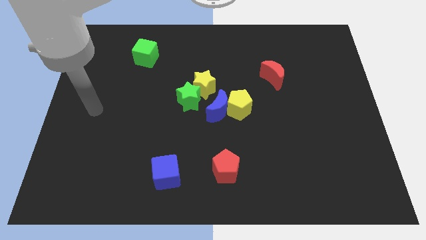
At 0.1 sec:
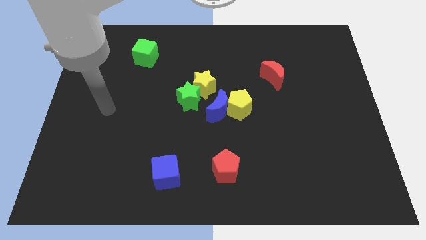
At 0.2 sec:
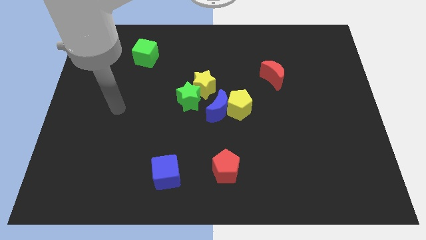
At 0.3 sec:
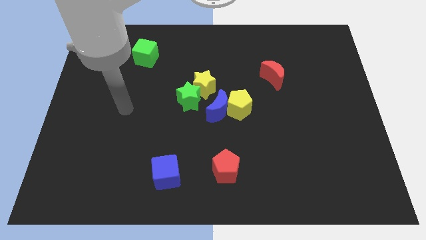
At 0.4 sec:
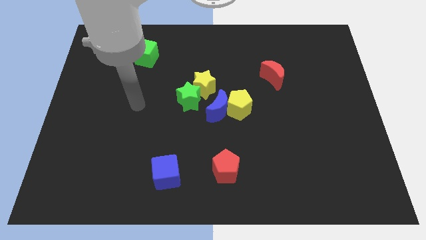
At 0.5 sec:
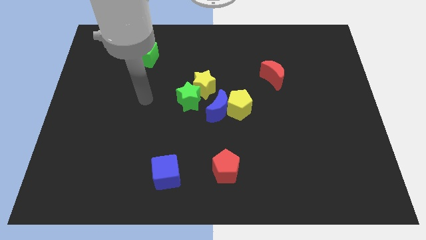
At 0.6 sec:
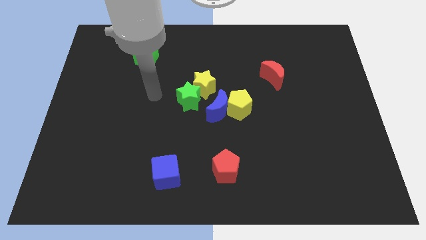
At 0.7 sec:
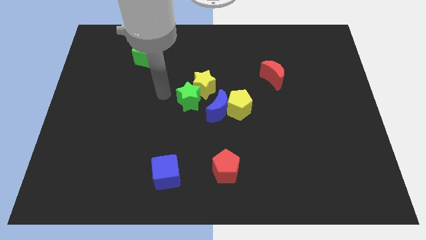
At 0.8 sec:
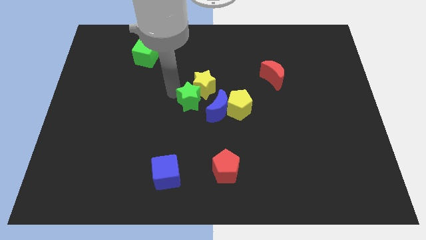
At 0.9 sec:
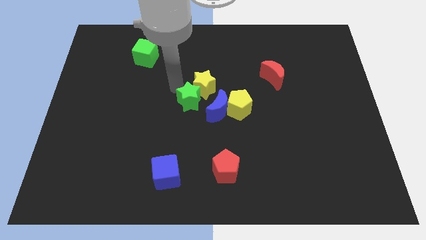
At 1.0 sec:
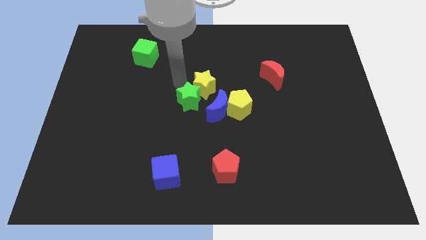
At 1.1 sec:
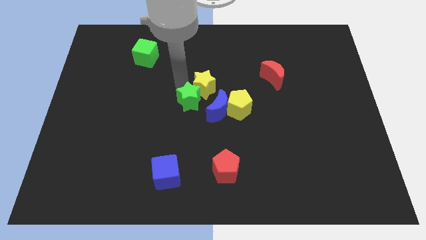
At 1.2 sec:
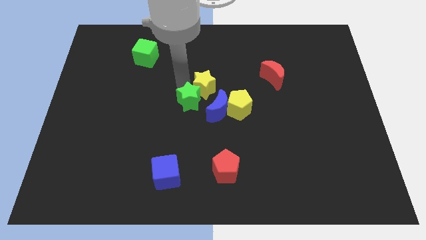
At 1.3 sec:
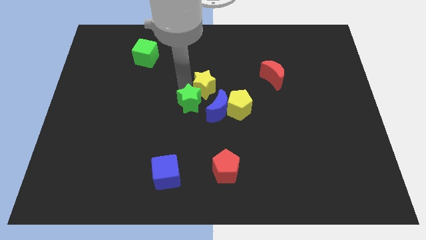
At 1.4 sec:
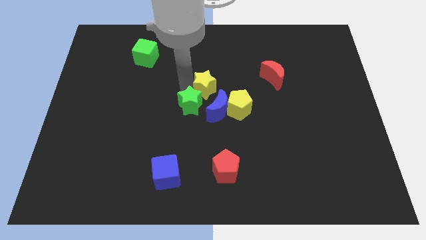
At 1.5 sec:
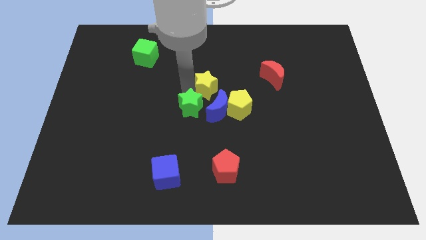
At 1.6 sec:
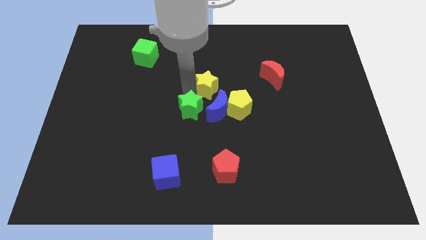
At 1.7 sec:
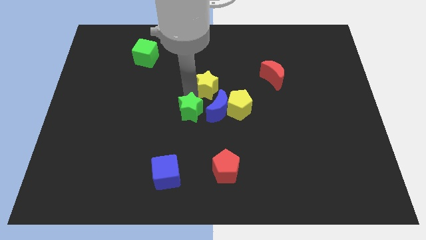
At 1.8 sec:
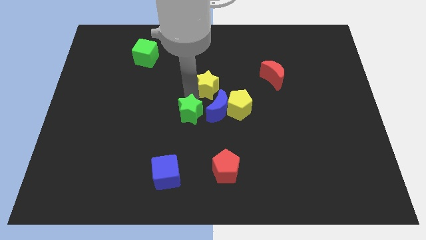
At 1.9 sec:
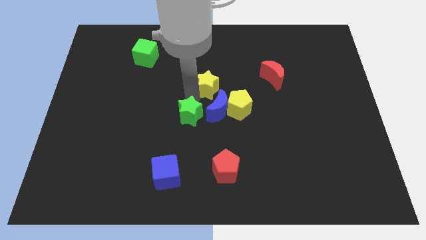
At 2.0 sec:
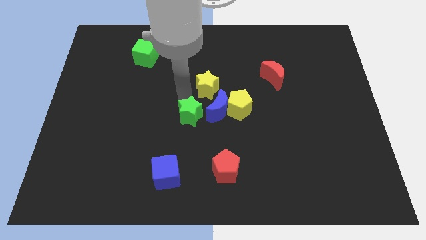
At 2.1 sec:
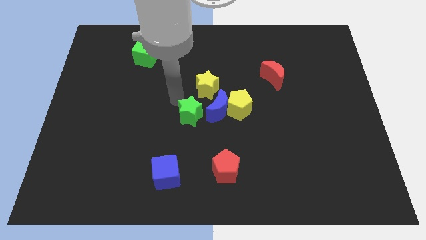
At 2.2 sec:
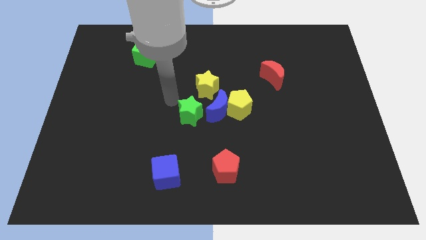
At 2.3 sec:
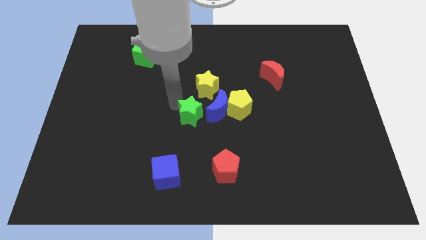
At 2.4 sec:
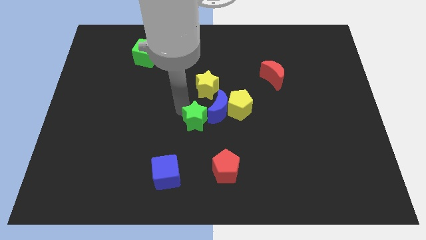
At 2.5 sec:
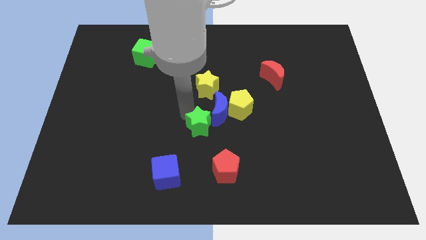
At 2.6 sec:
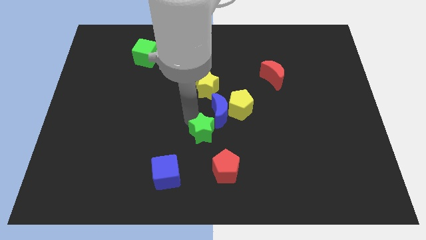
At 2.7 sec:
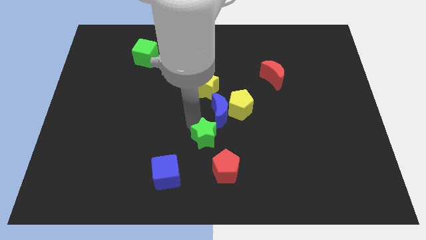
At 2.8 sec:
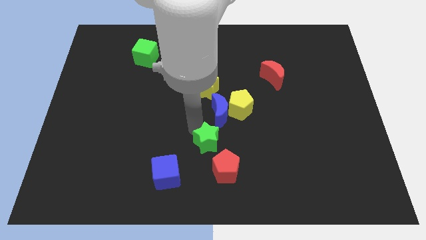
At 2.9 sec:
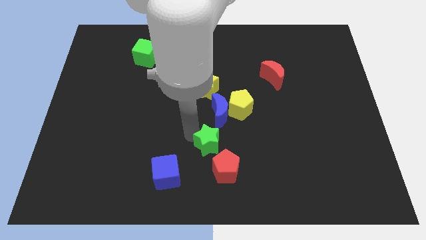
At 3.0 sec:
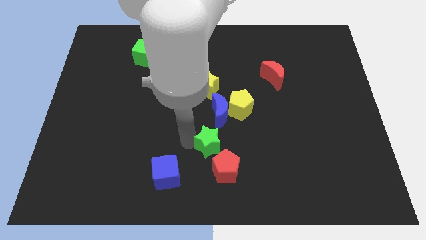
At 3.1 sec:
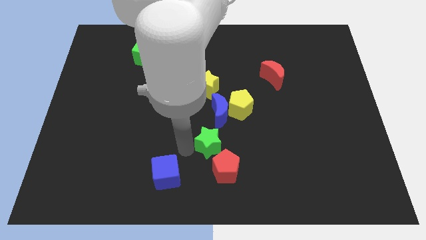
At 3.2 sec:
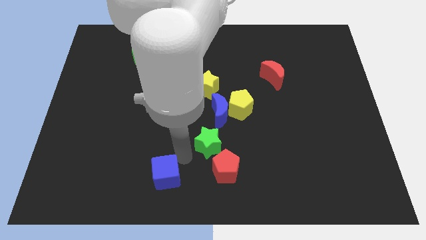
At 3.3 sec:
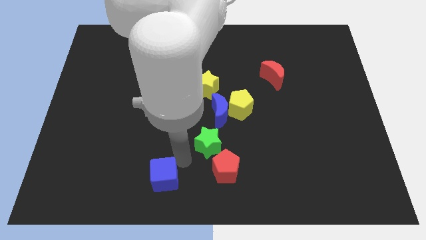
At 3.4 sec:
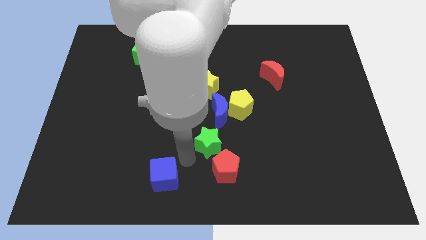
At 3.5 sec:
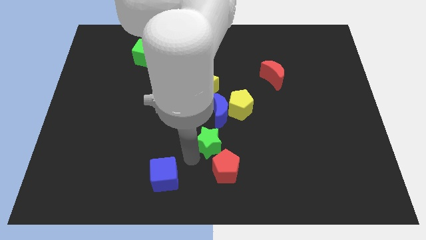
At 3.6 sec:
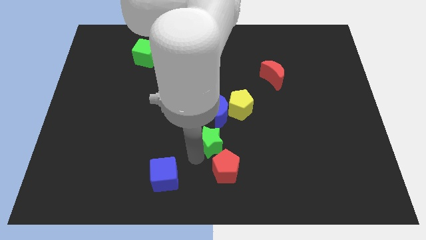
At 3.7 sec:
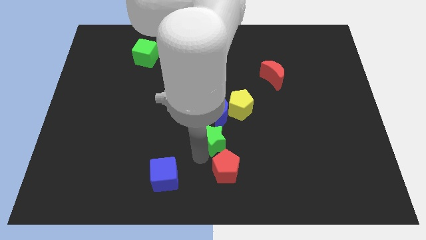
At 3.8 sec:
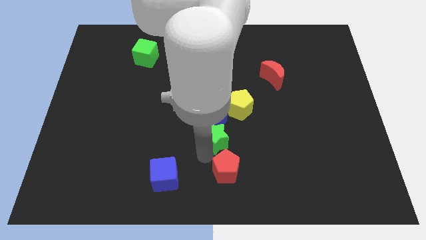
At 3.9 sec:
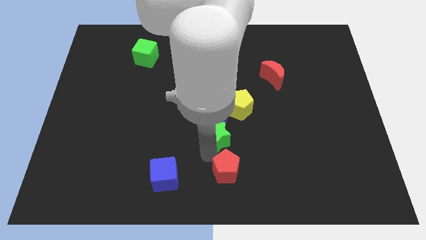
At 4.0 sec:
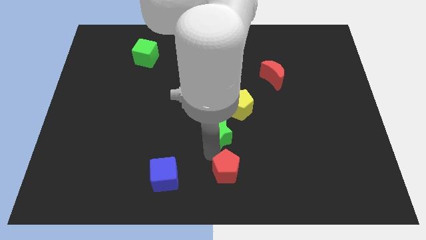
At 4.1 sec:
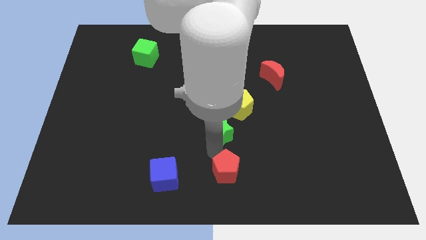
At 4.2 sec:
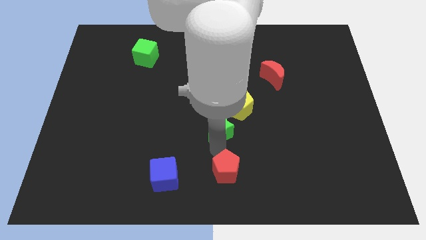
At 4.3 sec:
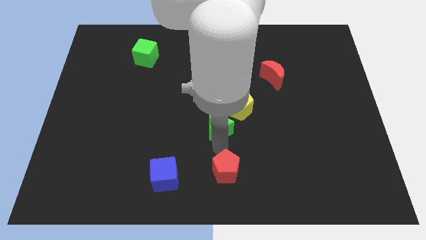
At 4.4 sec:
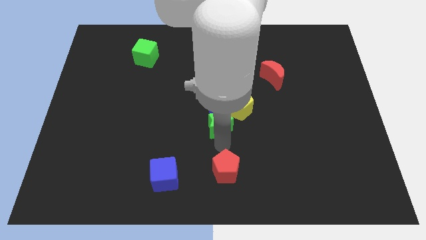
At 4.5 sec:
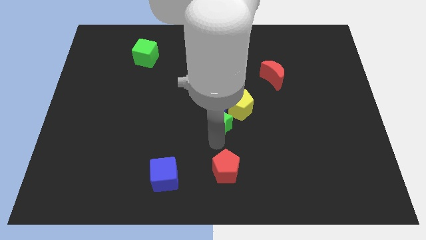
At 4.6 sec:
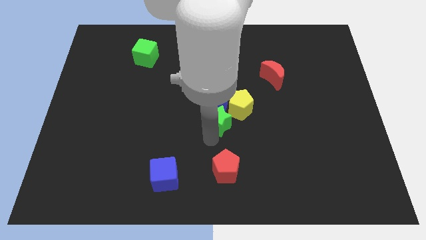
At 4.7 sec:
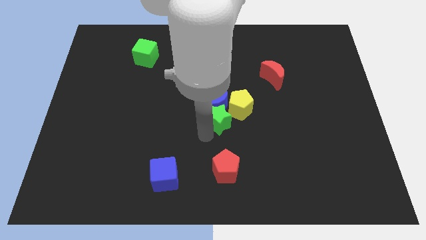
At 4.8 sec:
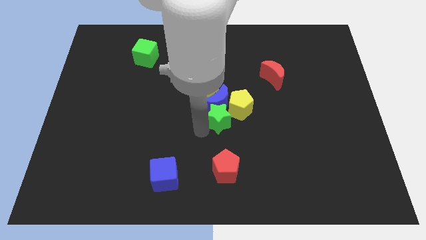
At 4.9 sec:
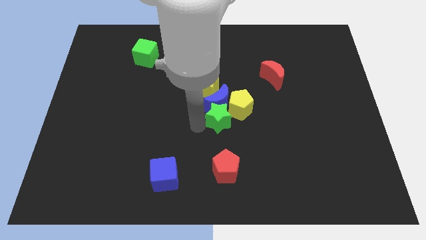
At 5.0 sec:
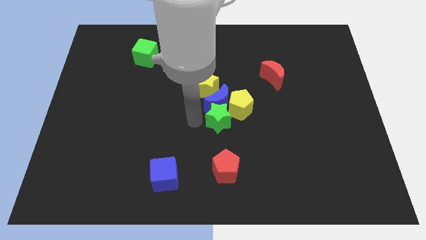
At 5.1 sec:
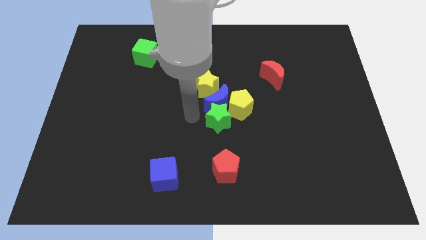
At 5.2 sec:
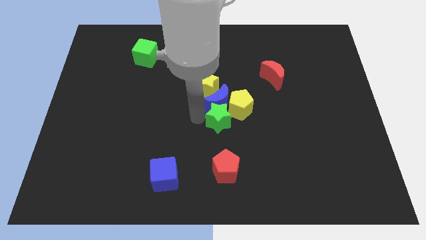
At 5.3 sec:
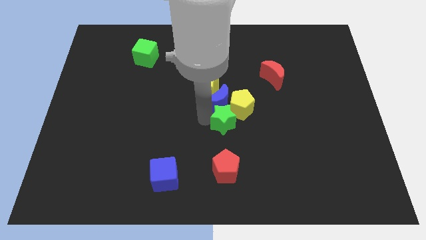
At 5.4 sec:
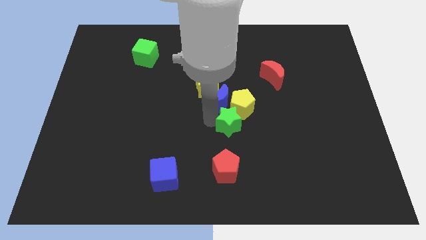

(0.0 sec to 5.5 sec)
slide the green star to the right somewhat

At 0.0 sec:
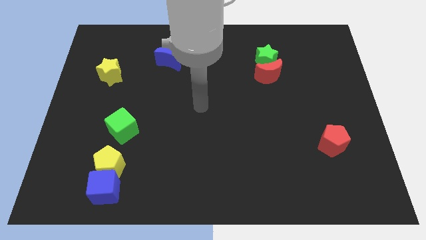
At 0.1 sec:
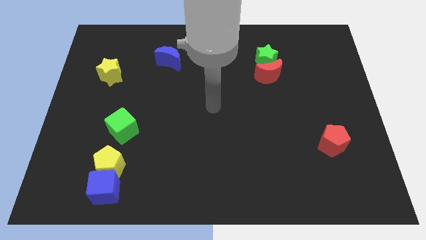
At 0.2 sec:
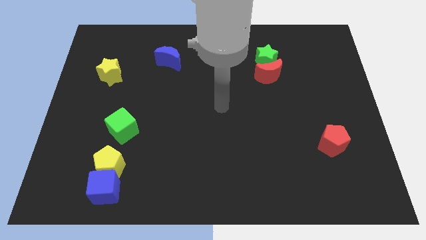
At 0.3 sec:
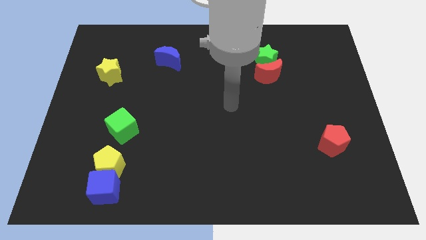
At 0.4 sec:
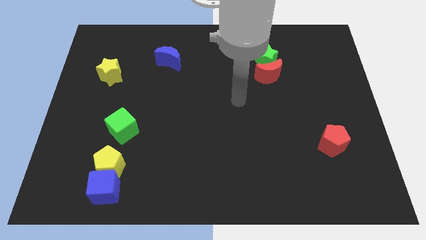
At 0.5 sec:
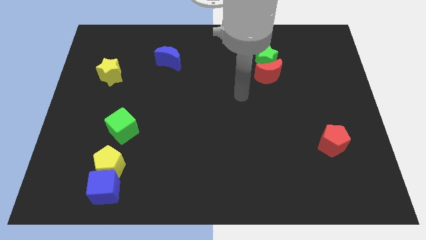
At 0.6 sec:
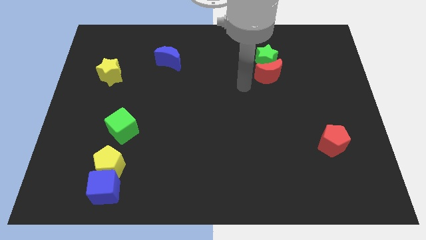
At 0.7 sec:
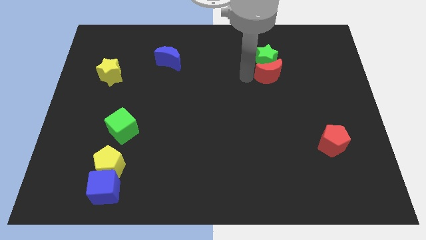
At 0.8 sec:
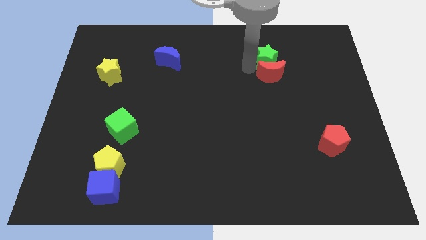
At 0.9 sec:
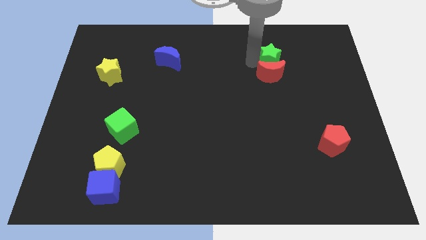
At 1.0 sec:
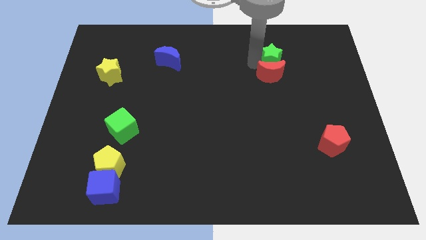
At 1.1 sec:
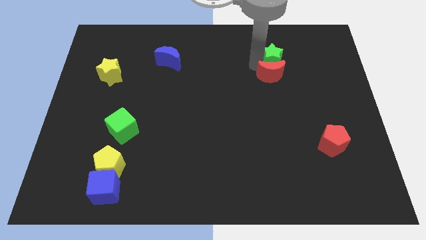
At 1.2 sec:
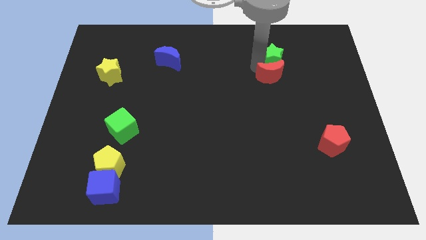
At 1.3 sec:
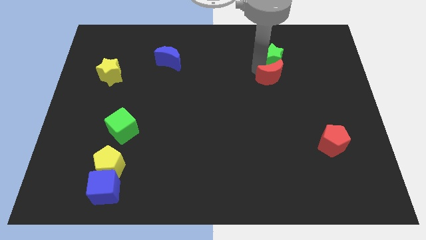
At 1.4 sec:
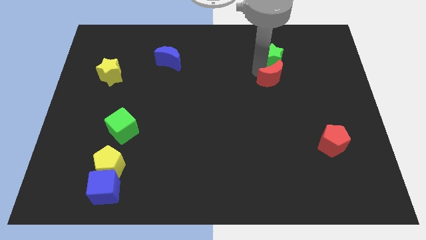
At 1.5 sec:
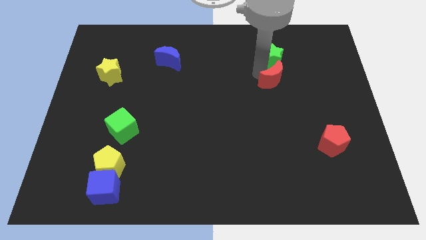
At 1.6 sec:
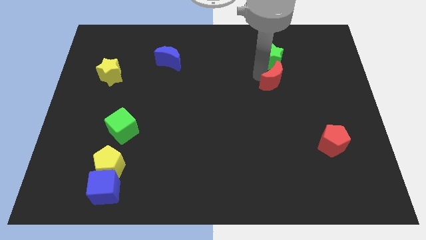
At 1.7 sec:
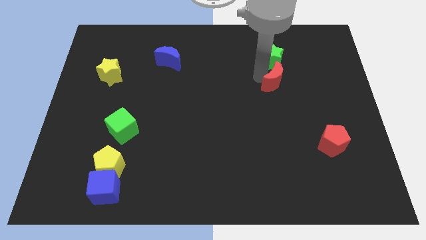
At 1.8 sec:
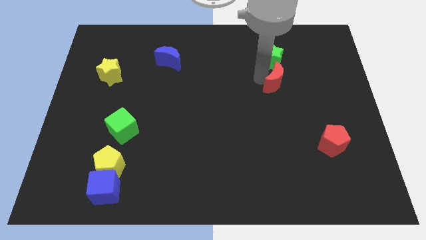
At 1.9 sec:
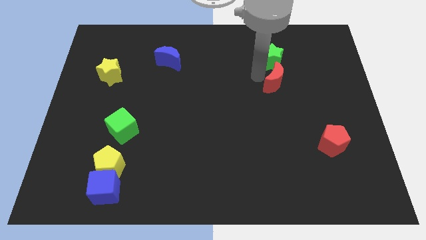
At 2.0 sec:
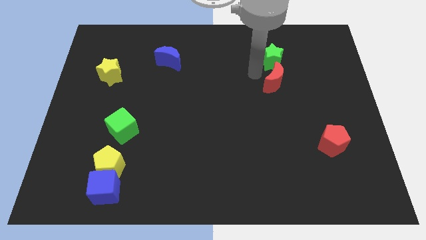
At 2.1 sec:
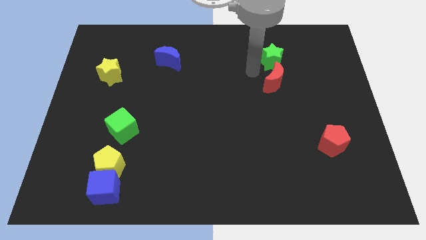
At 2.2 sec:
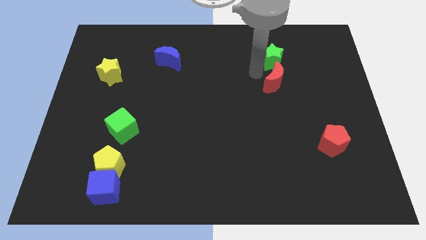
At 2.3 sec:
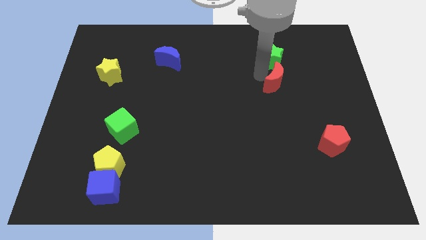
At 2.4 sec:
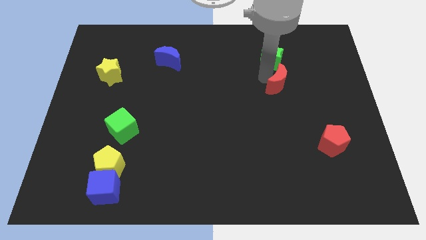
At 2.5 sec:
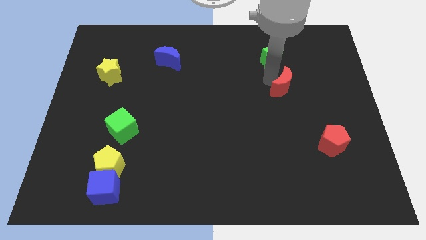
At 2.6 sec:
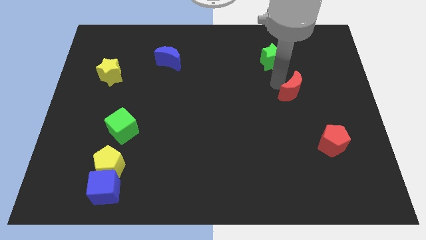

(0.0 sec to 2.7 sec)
slightly move the red moon down and right
